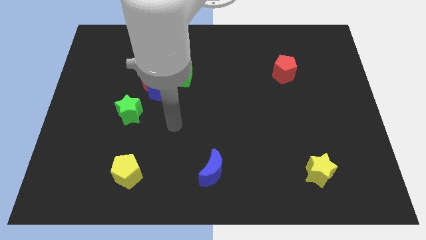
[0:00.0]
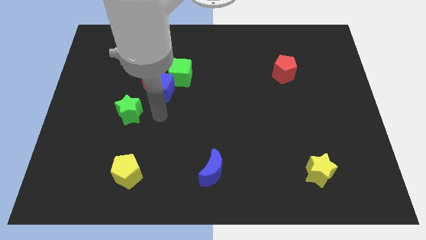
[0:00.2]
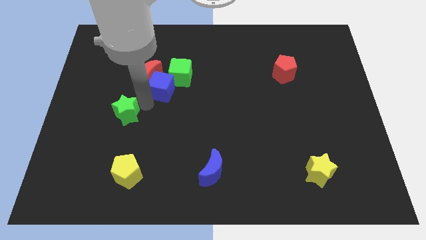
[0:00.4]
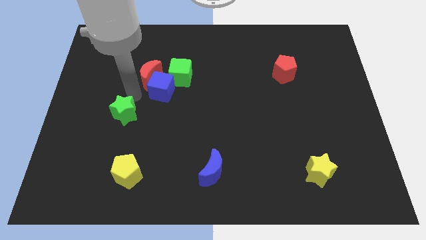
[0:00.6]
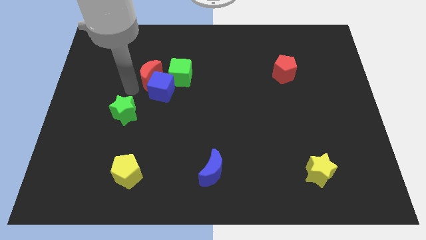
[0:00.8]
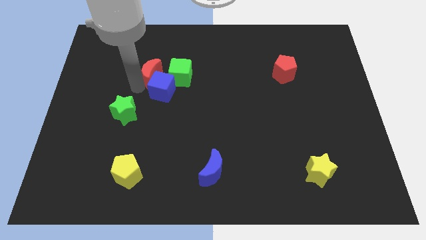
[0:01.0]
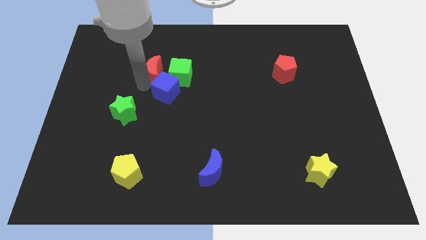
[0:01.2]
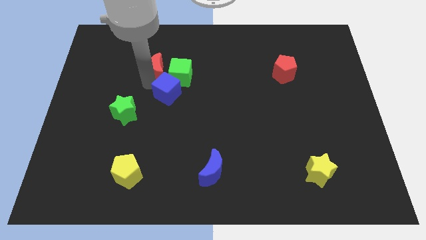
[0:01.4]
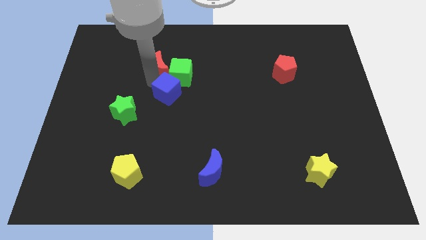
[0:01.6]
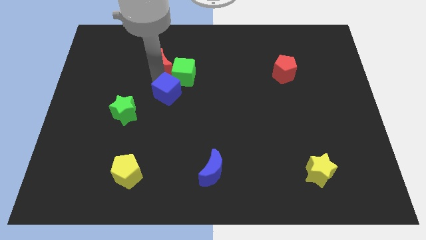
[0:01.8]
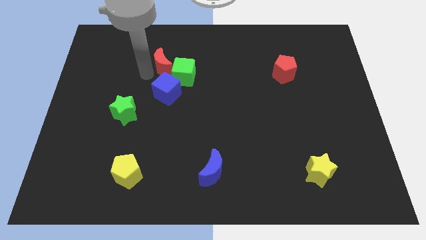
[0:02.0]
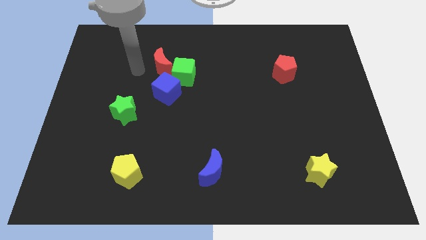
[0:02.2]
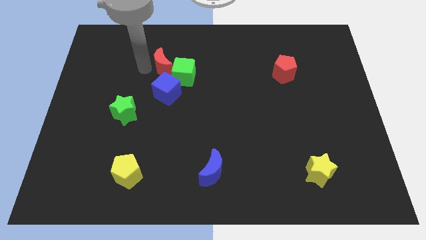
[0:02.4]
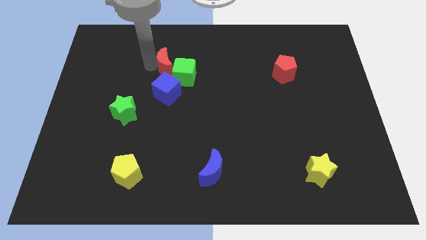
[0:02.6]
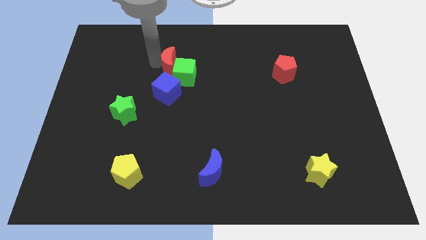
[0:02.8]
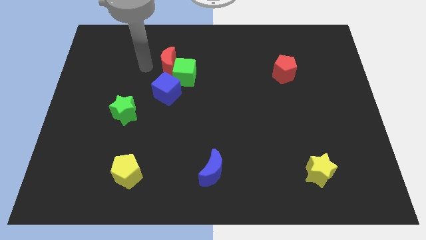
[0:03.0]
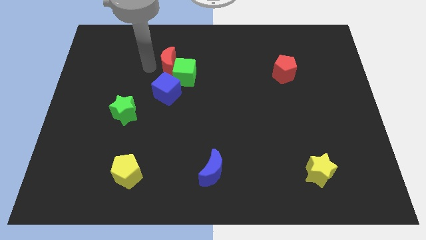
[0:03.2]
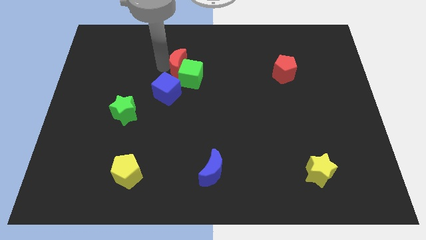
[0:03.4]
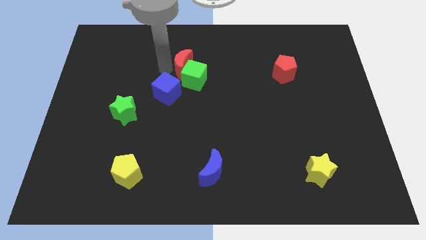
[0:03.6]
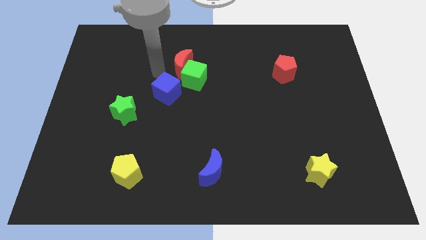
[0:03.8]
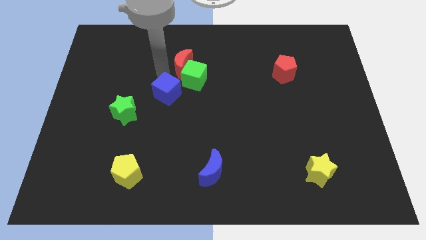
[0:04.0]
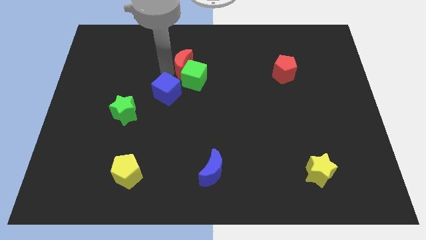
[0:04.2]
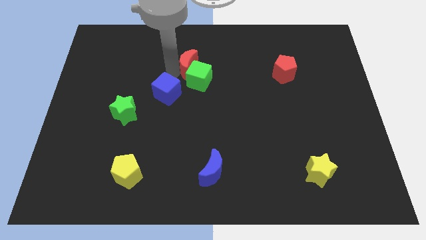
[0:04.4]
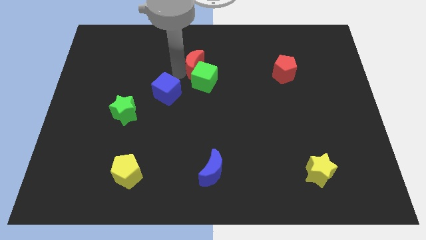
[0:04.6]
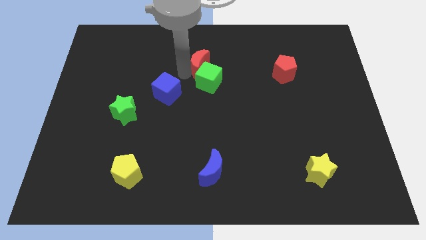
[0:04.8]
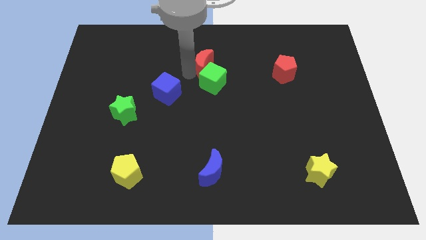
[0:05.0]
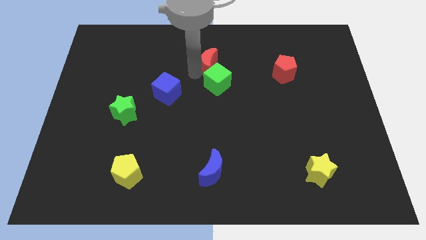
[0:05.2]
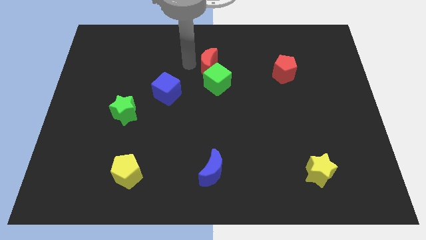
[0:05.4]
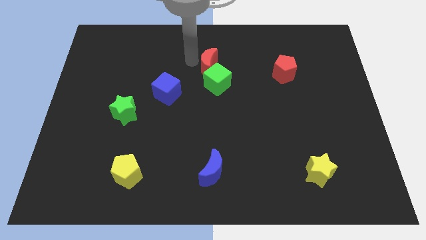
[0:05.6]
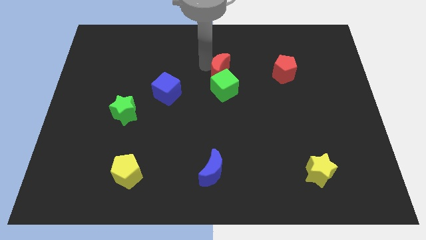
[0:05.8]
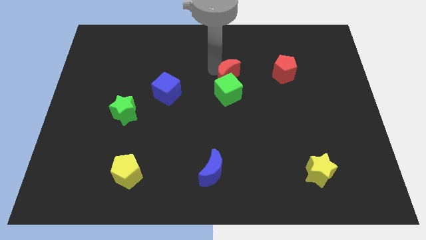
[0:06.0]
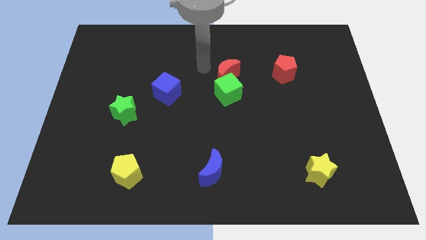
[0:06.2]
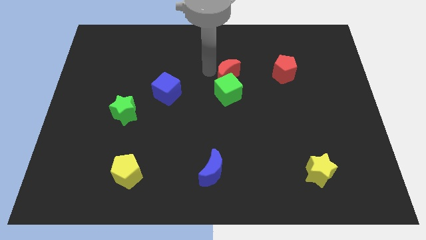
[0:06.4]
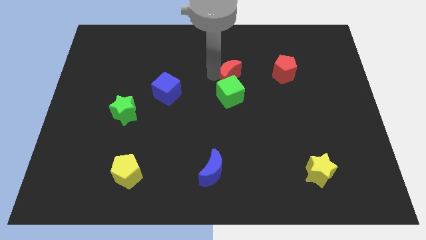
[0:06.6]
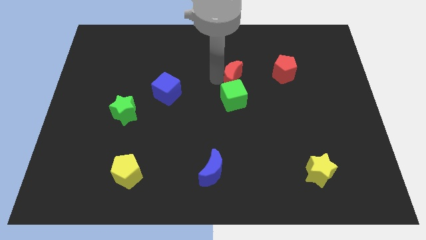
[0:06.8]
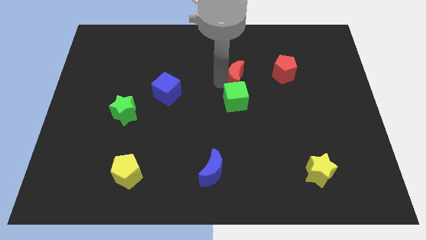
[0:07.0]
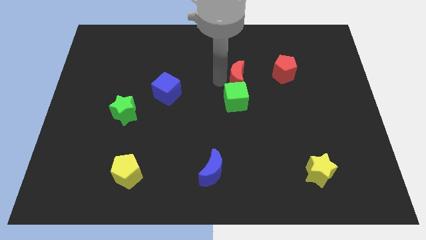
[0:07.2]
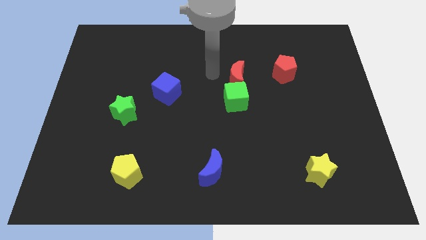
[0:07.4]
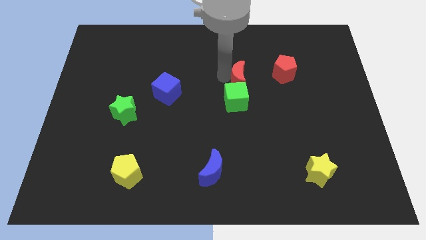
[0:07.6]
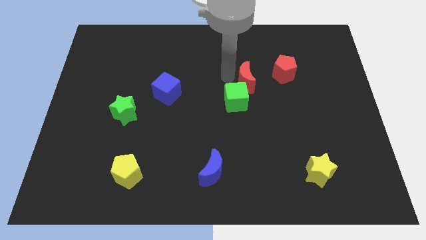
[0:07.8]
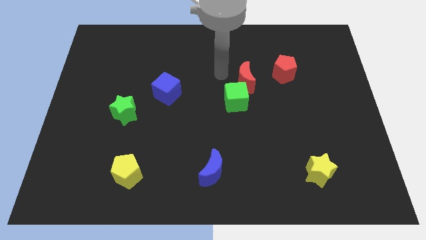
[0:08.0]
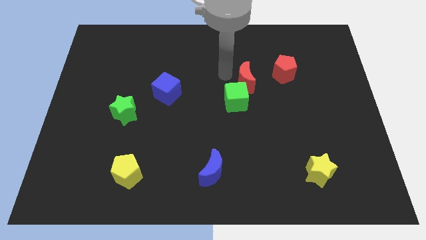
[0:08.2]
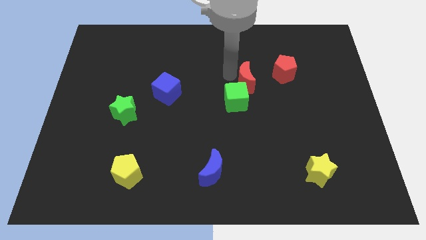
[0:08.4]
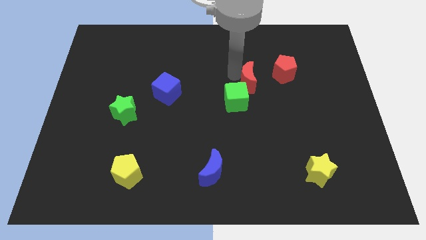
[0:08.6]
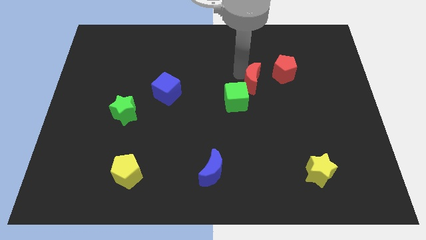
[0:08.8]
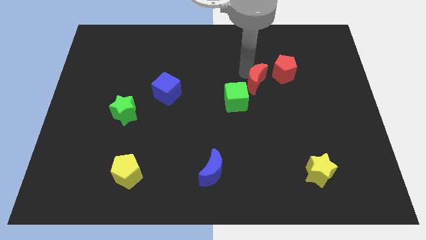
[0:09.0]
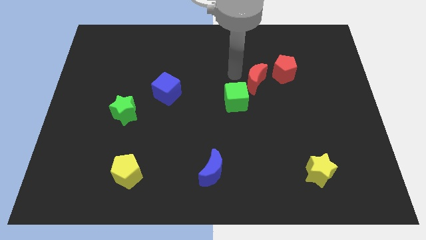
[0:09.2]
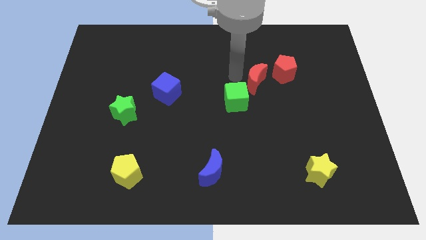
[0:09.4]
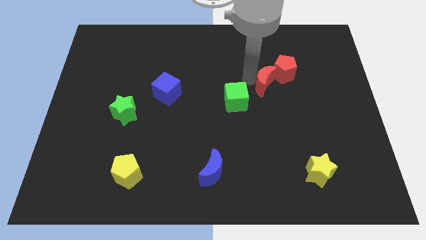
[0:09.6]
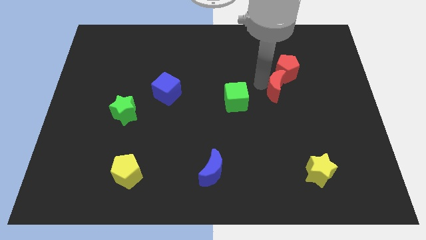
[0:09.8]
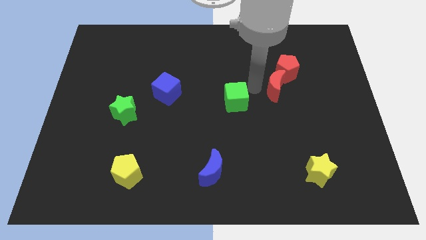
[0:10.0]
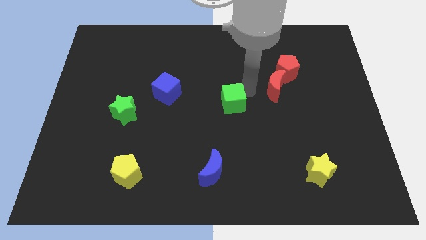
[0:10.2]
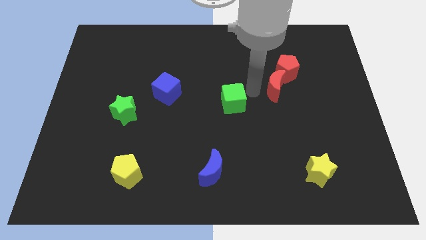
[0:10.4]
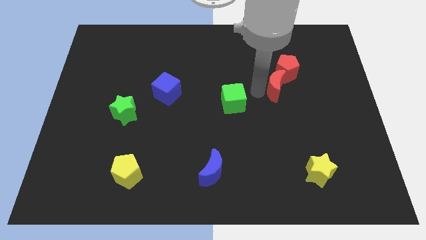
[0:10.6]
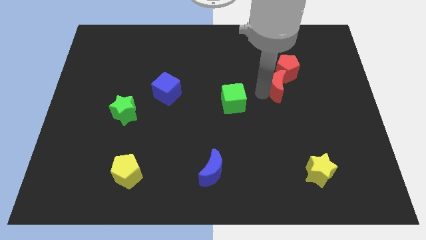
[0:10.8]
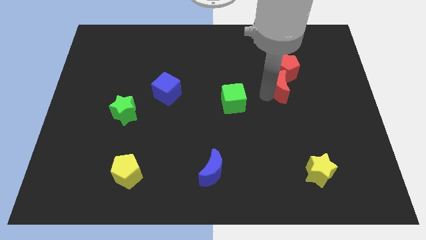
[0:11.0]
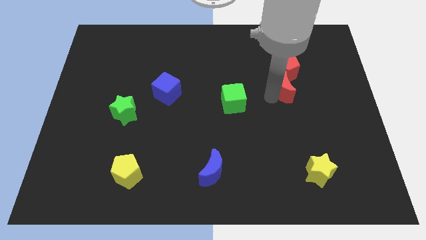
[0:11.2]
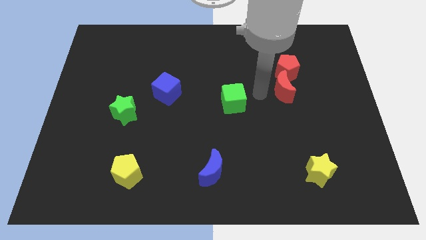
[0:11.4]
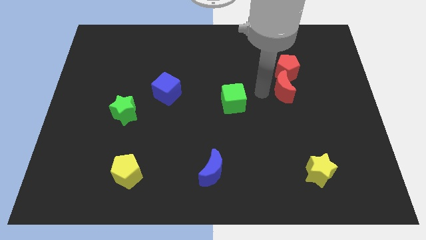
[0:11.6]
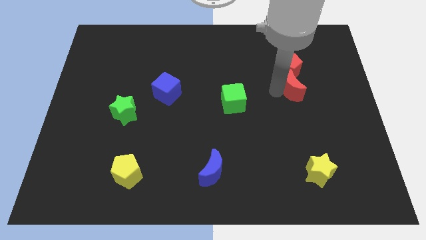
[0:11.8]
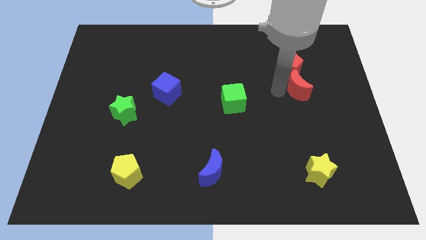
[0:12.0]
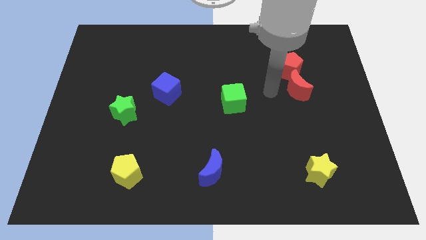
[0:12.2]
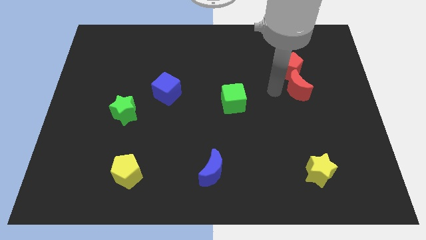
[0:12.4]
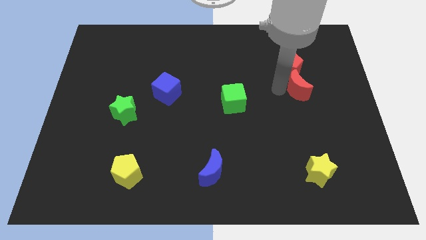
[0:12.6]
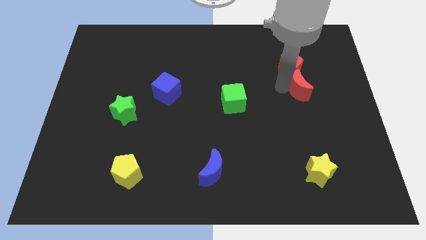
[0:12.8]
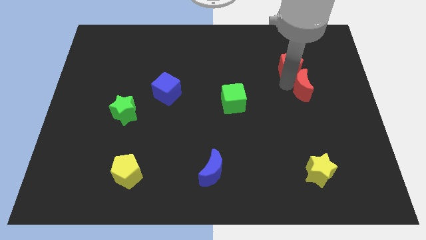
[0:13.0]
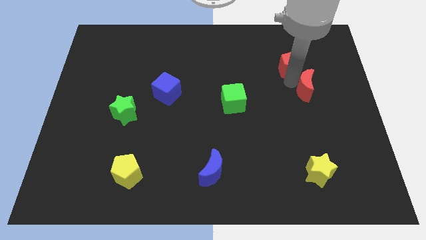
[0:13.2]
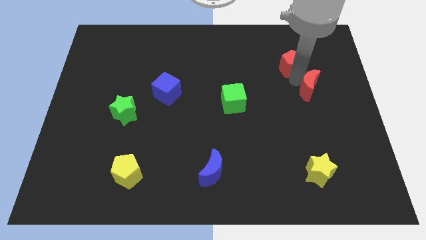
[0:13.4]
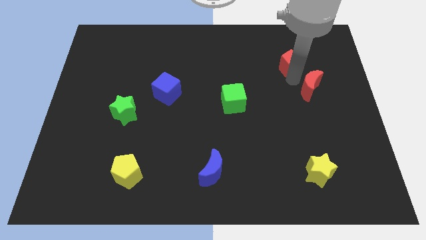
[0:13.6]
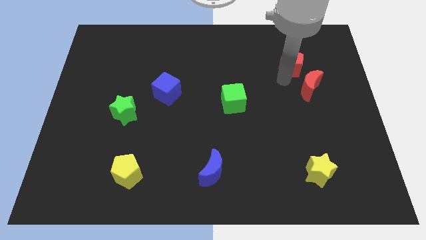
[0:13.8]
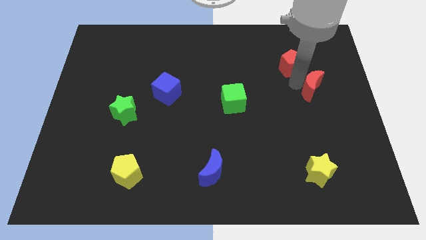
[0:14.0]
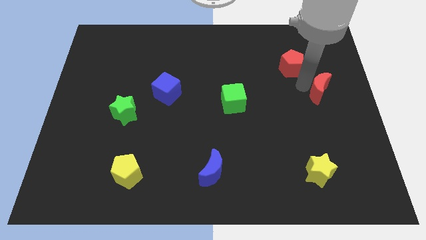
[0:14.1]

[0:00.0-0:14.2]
move the red moon to the right side
